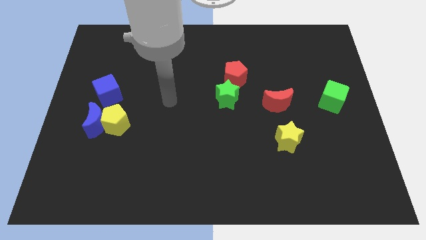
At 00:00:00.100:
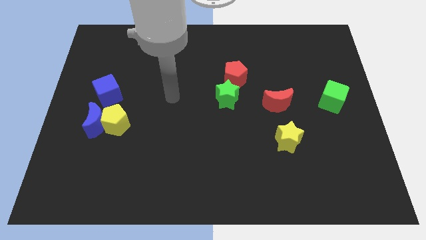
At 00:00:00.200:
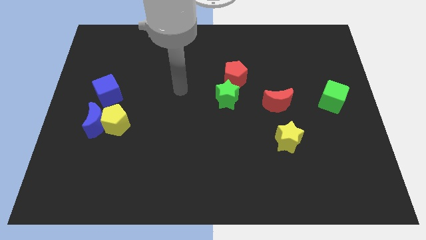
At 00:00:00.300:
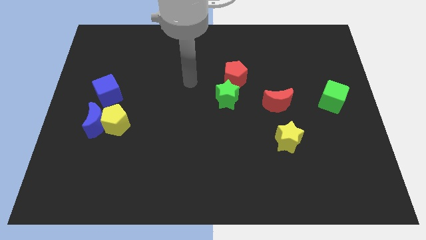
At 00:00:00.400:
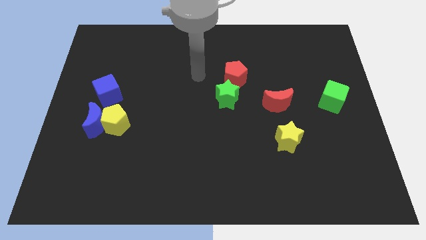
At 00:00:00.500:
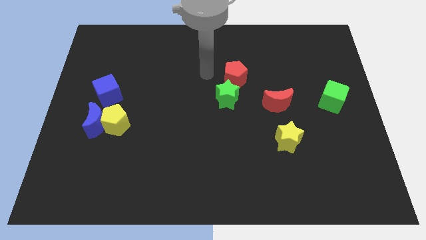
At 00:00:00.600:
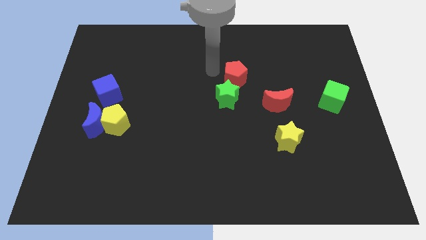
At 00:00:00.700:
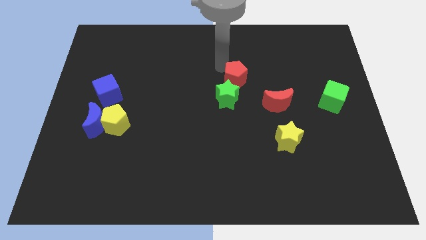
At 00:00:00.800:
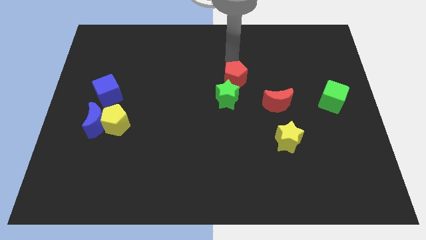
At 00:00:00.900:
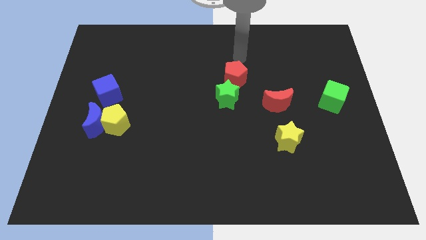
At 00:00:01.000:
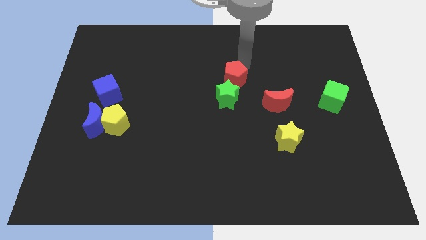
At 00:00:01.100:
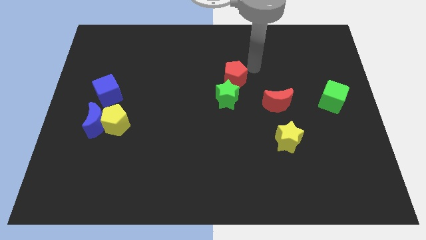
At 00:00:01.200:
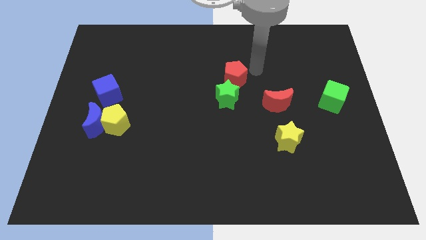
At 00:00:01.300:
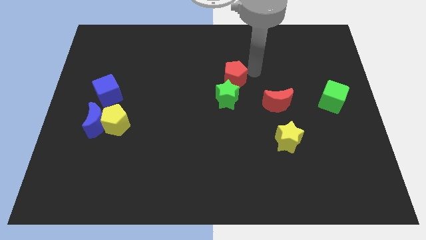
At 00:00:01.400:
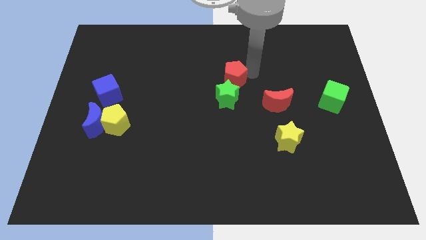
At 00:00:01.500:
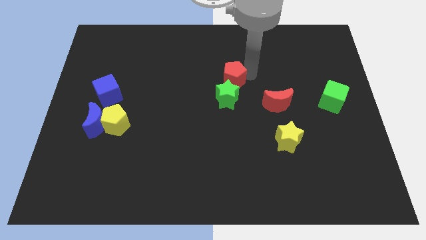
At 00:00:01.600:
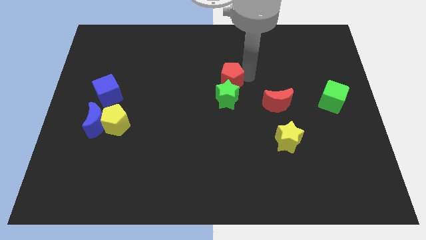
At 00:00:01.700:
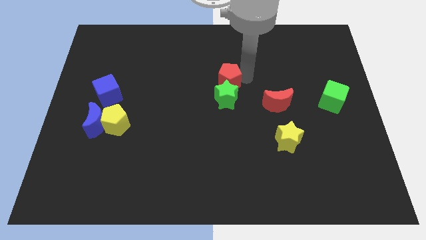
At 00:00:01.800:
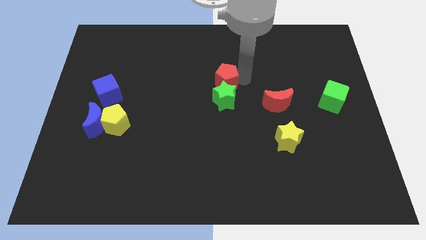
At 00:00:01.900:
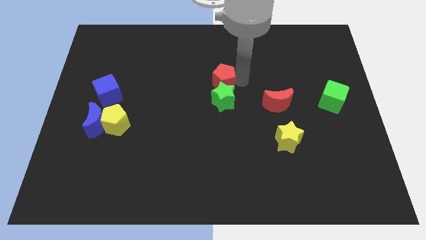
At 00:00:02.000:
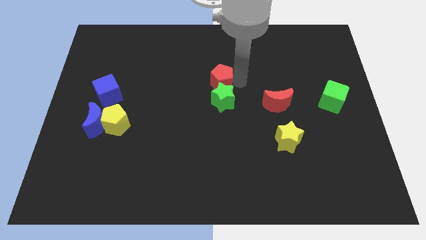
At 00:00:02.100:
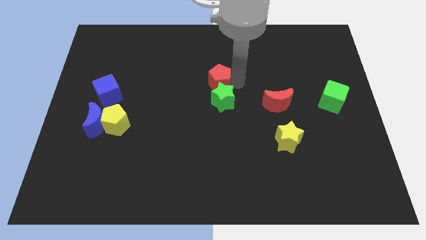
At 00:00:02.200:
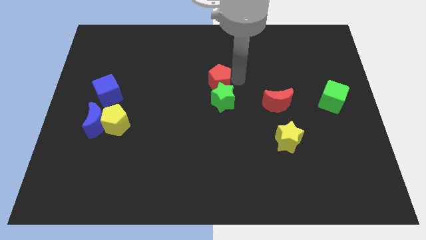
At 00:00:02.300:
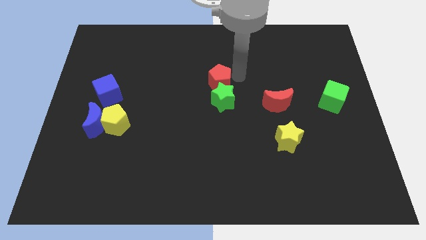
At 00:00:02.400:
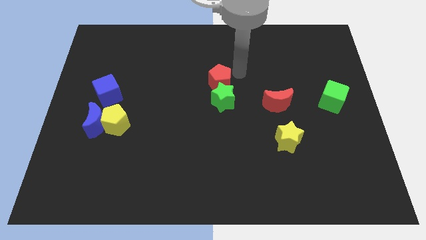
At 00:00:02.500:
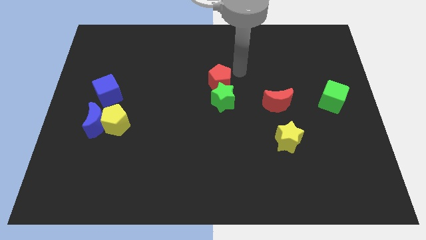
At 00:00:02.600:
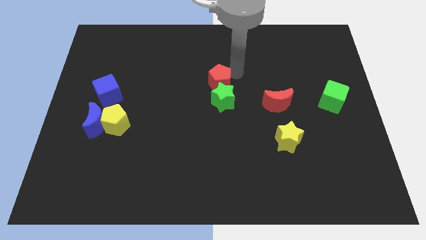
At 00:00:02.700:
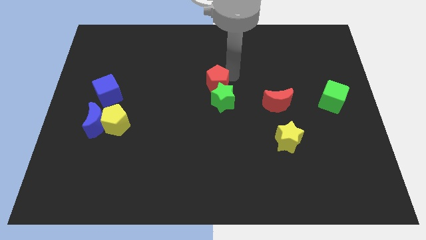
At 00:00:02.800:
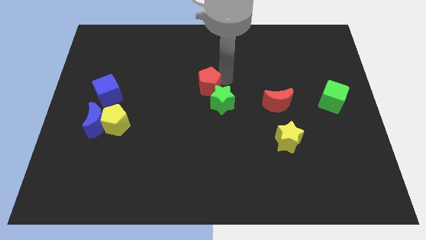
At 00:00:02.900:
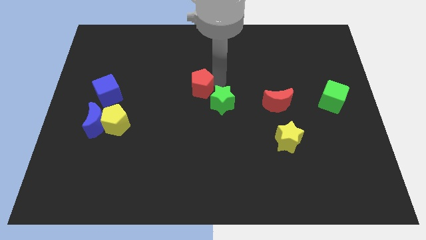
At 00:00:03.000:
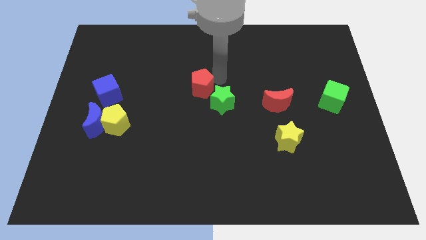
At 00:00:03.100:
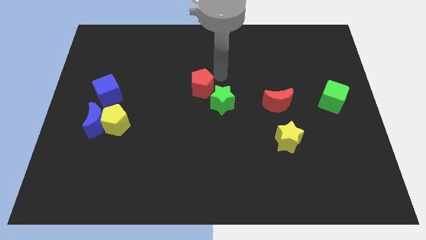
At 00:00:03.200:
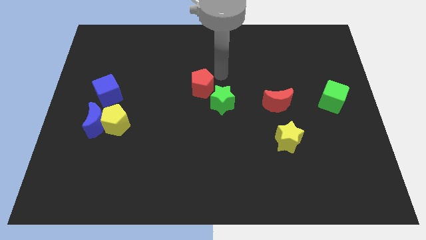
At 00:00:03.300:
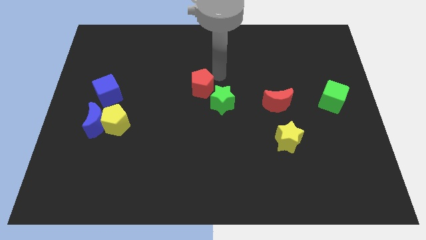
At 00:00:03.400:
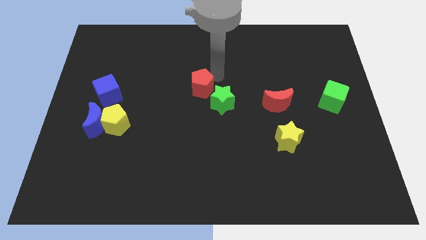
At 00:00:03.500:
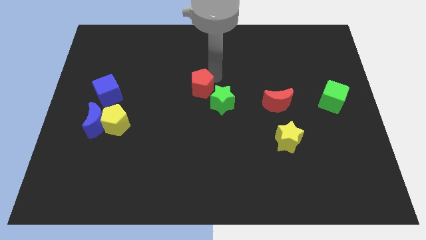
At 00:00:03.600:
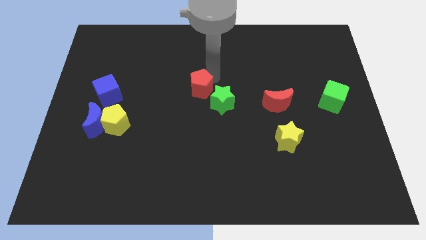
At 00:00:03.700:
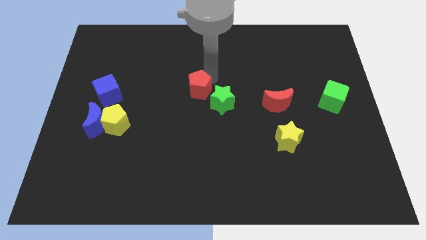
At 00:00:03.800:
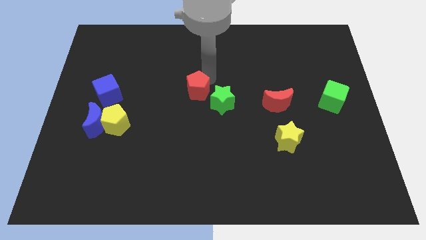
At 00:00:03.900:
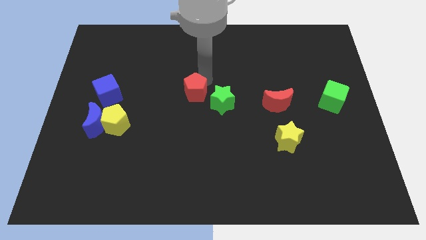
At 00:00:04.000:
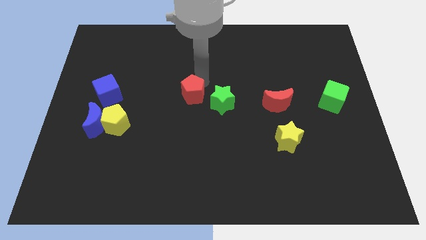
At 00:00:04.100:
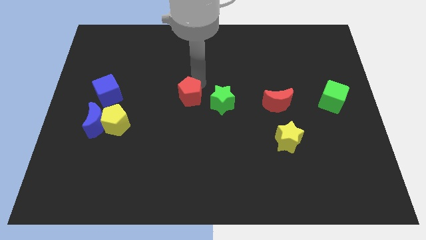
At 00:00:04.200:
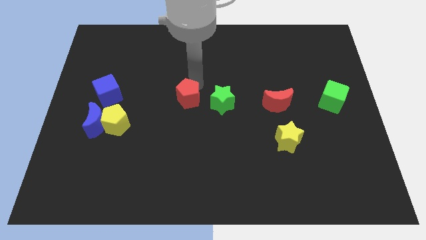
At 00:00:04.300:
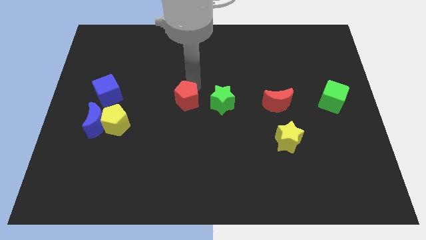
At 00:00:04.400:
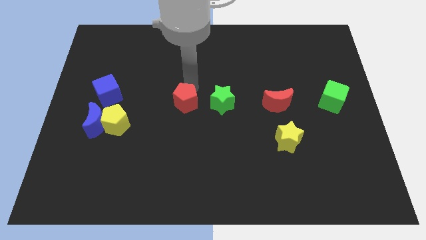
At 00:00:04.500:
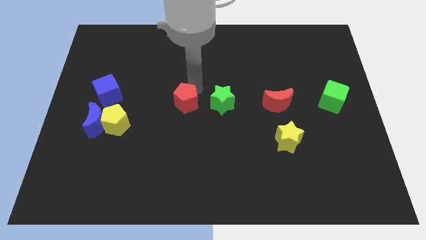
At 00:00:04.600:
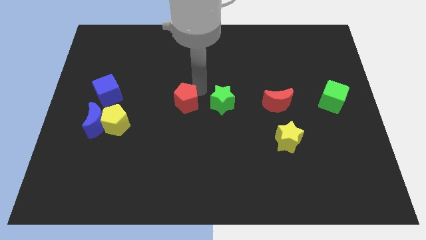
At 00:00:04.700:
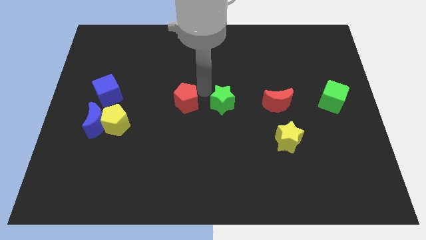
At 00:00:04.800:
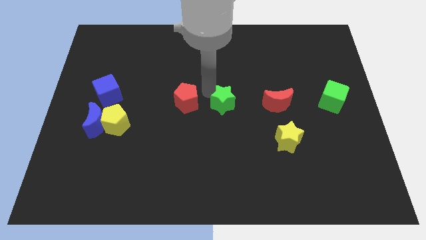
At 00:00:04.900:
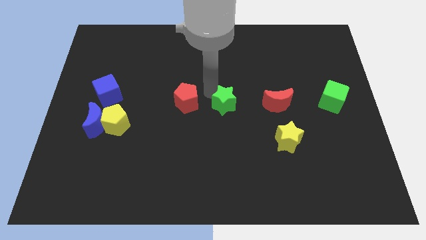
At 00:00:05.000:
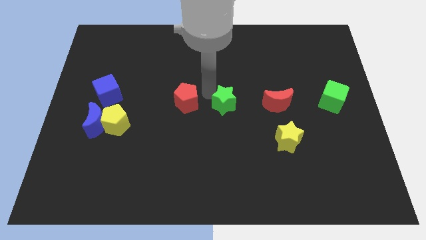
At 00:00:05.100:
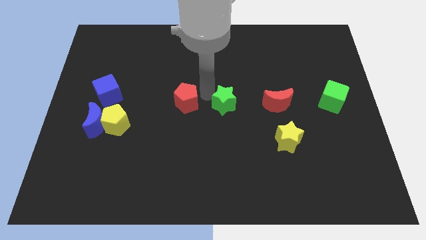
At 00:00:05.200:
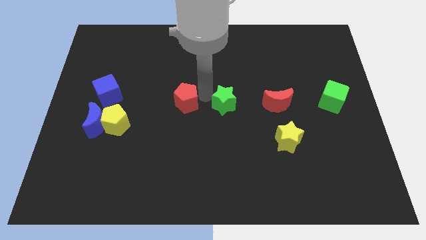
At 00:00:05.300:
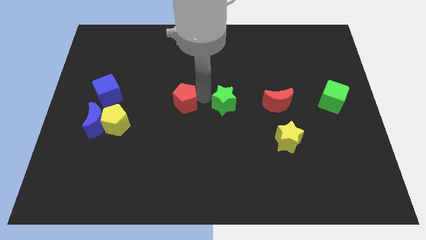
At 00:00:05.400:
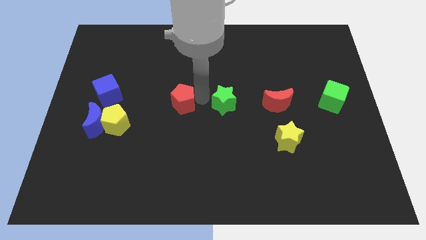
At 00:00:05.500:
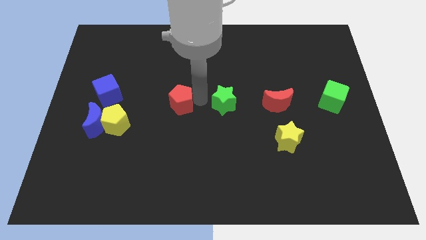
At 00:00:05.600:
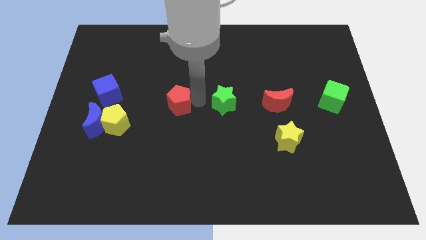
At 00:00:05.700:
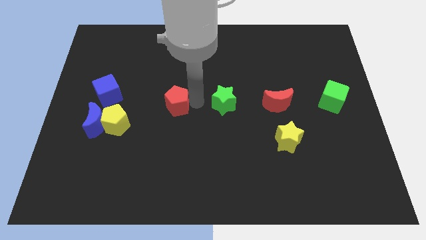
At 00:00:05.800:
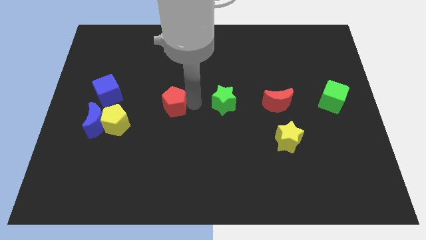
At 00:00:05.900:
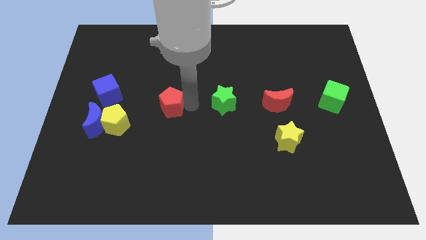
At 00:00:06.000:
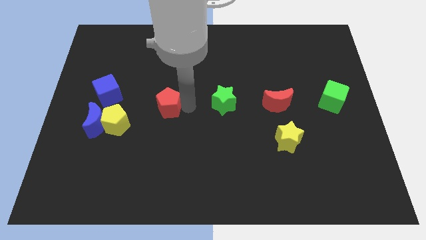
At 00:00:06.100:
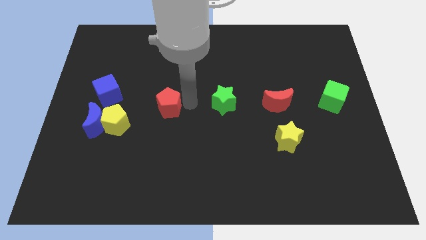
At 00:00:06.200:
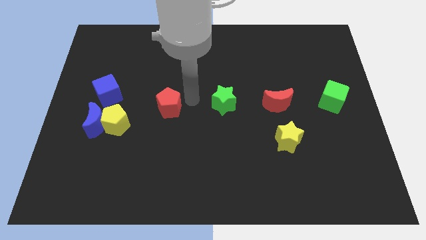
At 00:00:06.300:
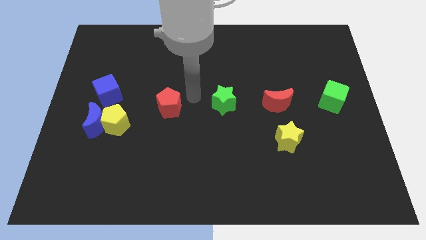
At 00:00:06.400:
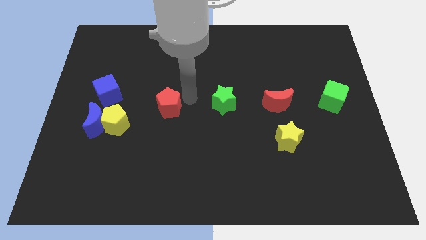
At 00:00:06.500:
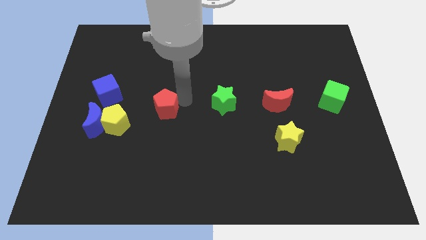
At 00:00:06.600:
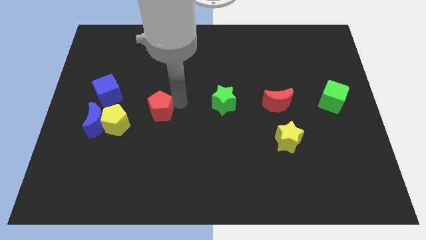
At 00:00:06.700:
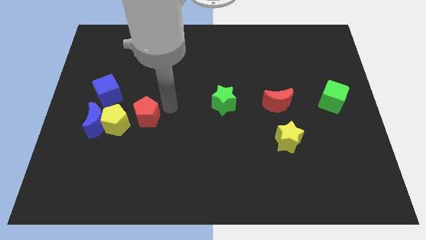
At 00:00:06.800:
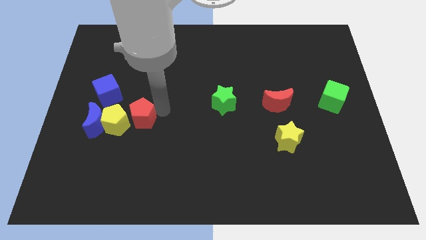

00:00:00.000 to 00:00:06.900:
slide the red pentagon to the yellow pentagon

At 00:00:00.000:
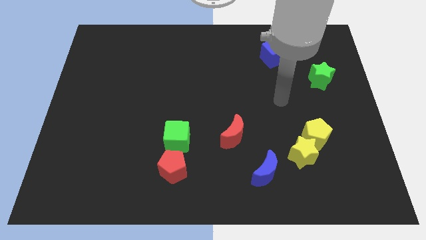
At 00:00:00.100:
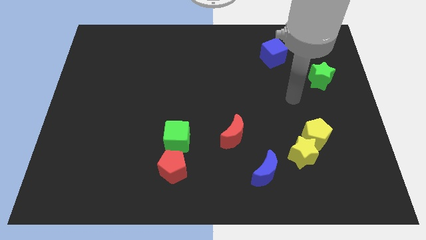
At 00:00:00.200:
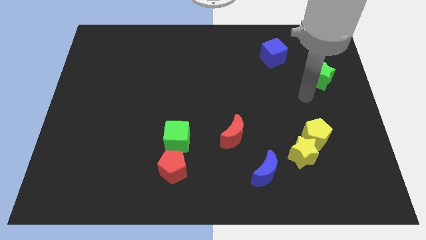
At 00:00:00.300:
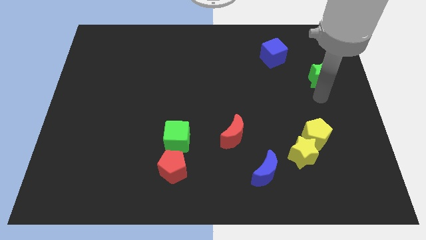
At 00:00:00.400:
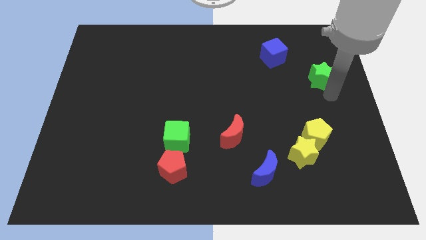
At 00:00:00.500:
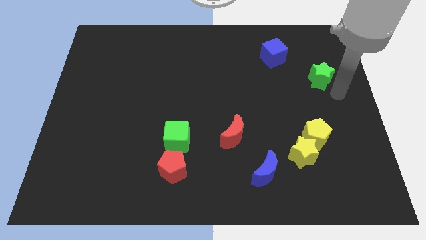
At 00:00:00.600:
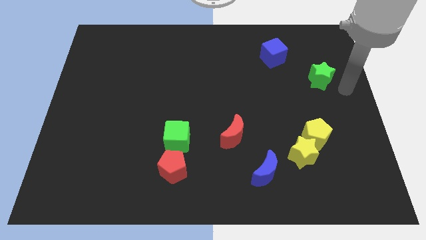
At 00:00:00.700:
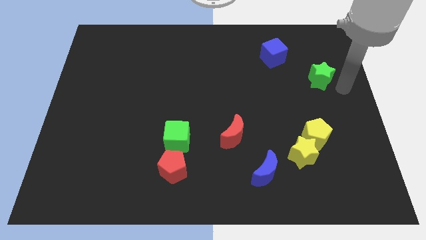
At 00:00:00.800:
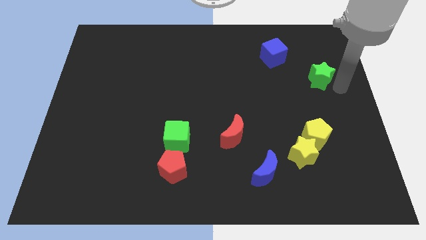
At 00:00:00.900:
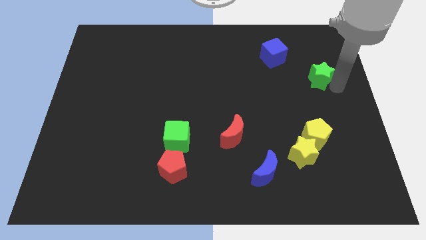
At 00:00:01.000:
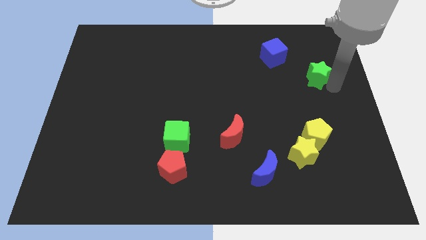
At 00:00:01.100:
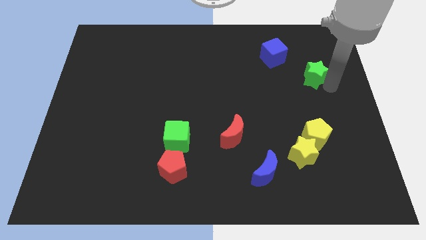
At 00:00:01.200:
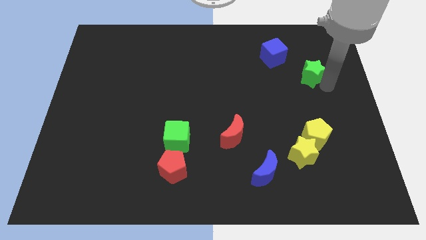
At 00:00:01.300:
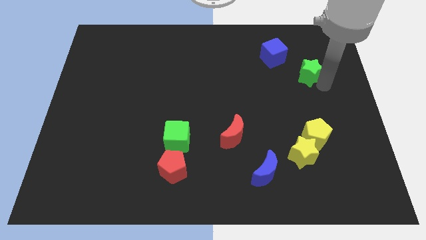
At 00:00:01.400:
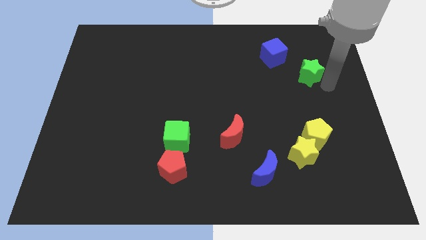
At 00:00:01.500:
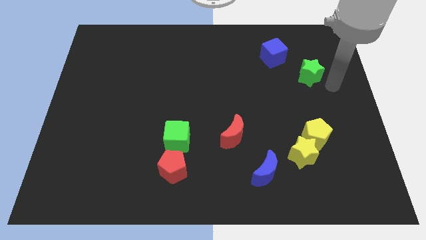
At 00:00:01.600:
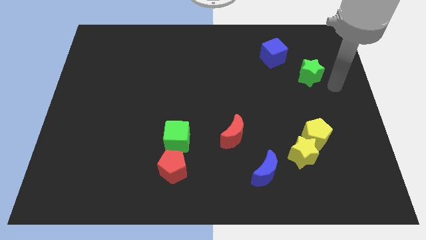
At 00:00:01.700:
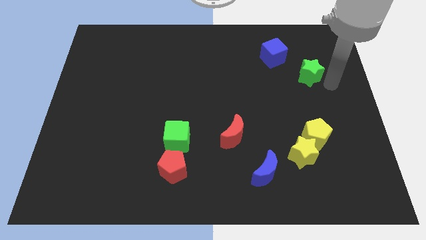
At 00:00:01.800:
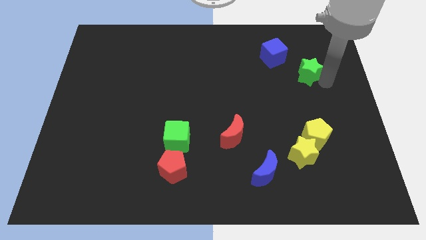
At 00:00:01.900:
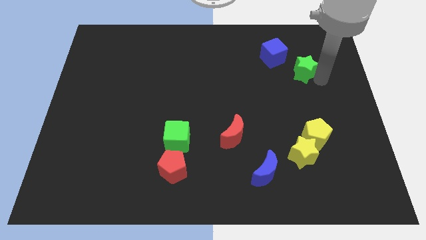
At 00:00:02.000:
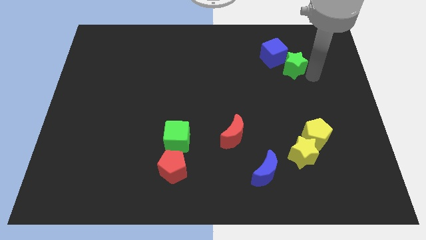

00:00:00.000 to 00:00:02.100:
move the green star close to the blue cube
